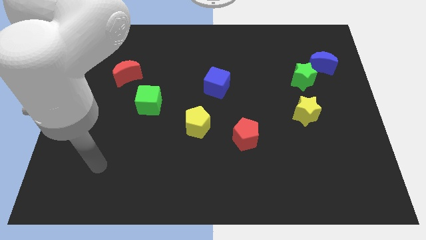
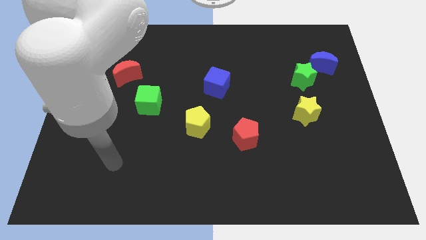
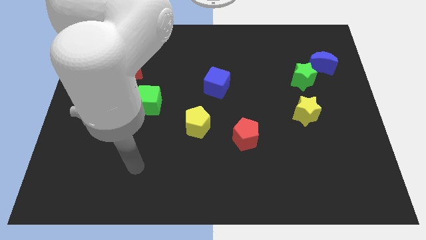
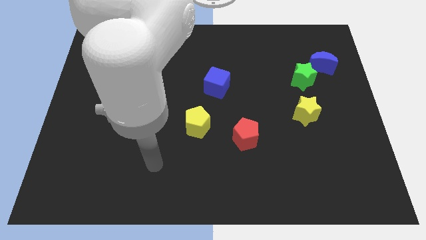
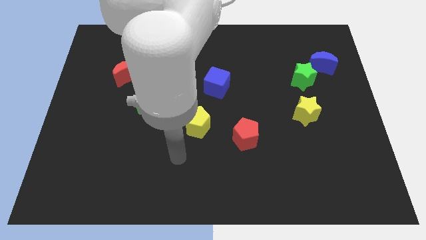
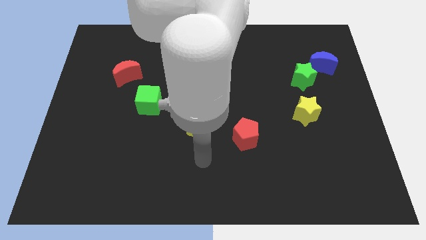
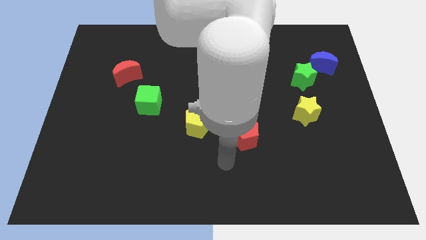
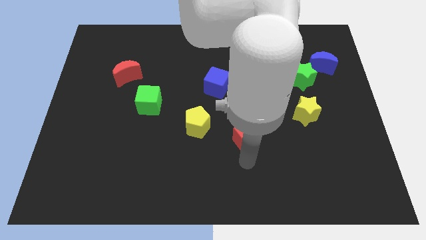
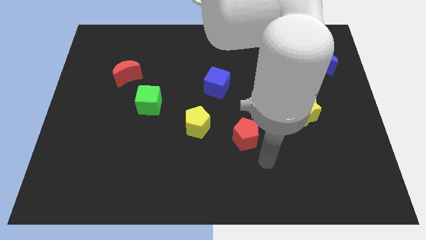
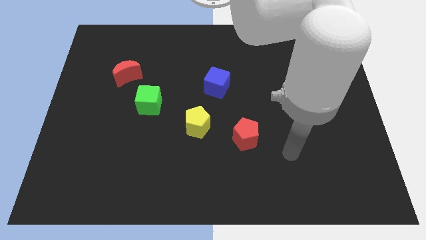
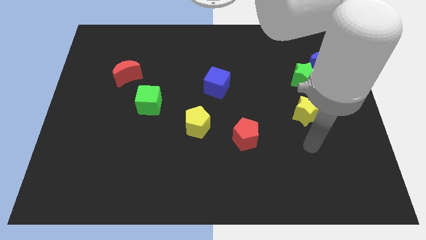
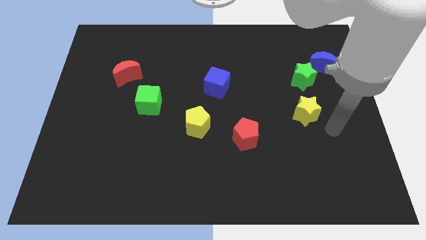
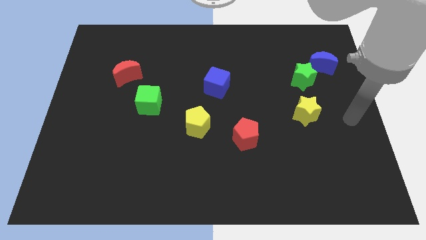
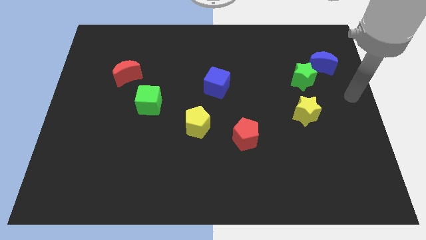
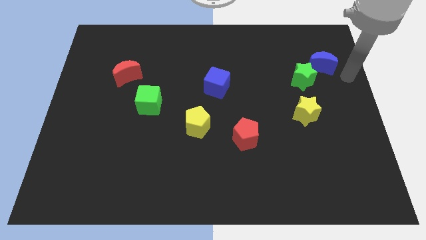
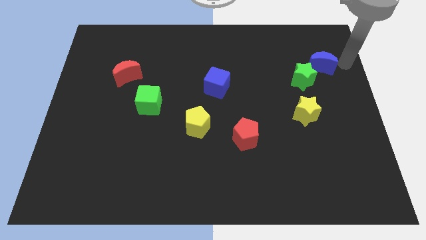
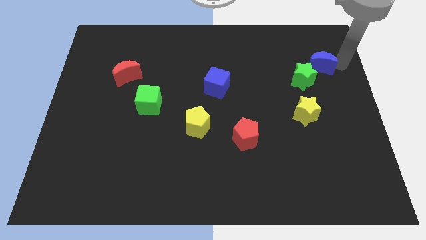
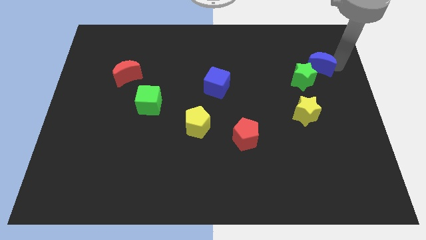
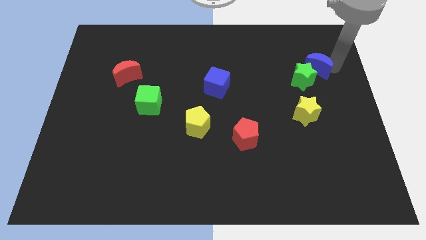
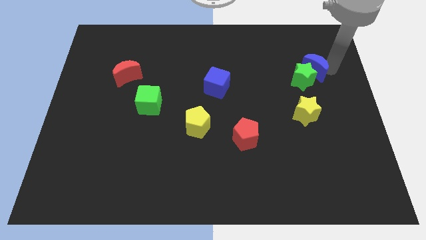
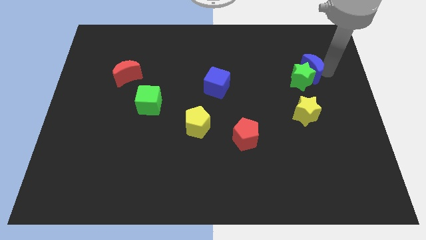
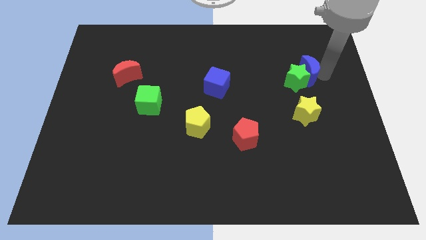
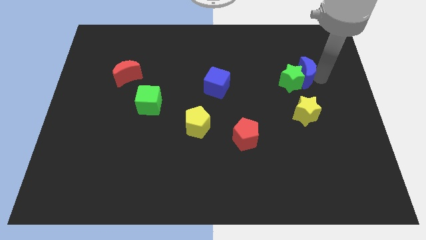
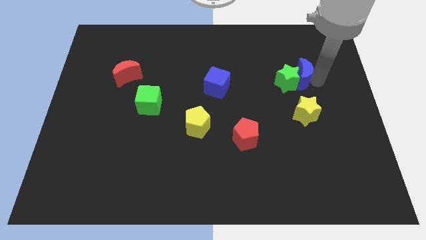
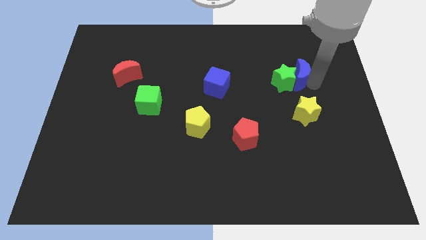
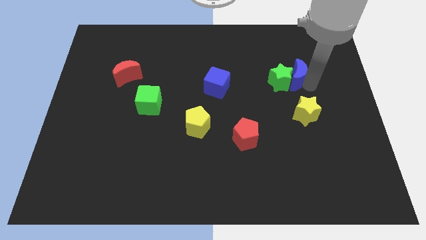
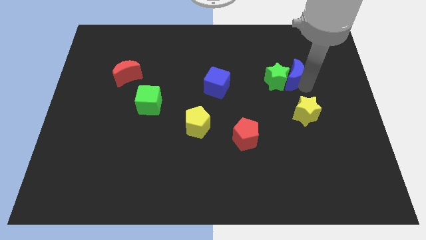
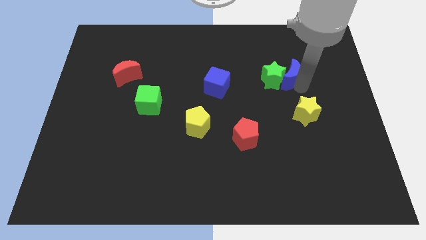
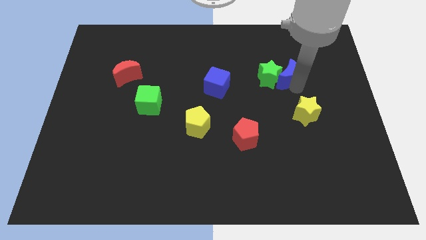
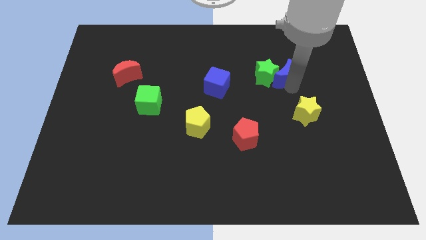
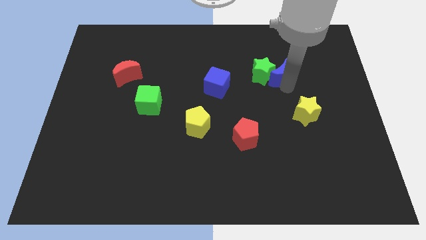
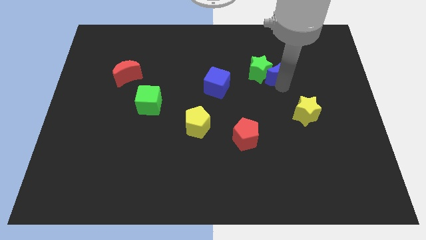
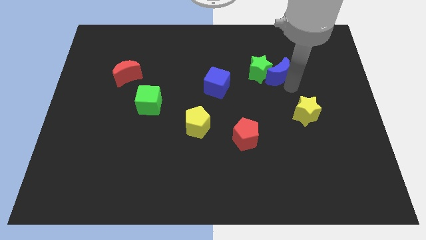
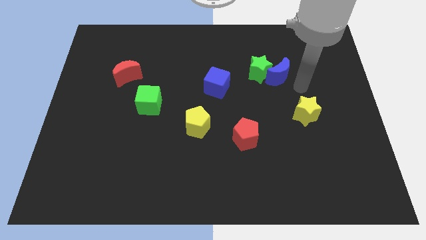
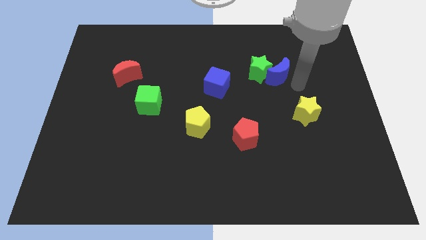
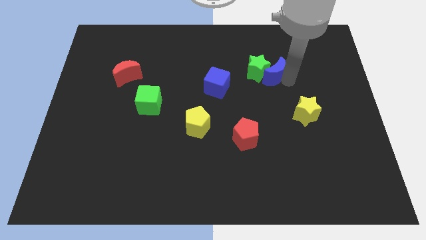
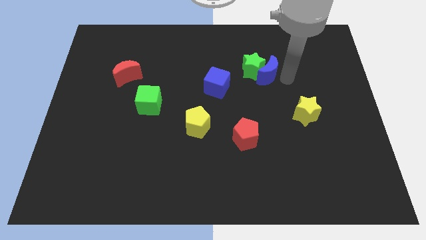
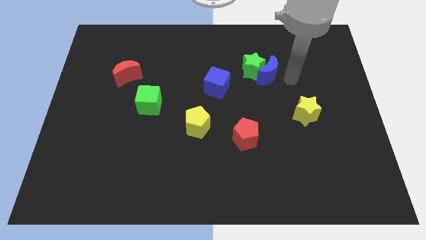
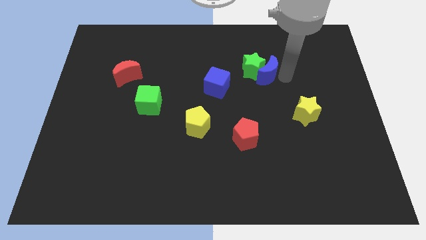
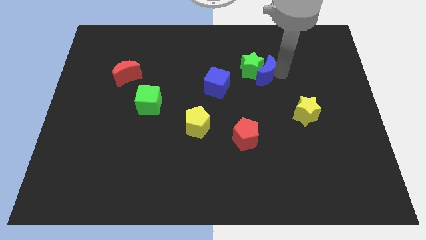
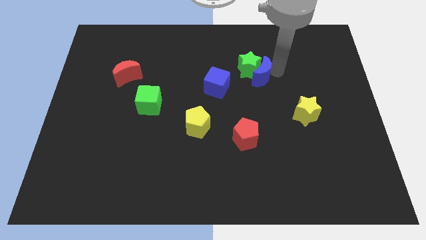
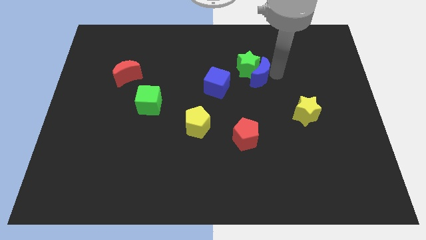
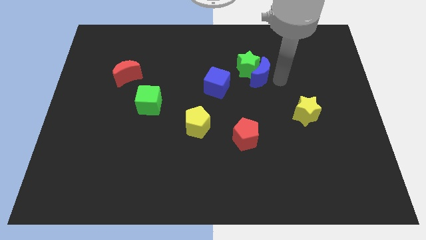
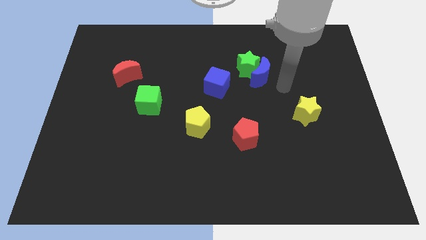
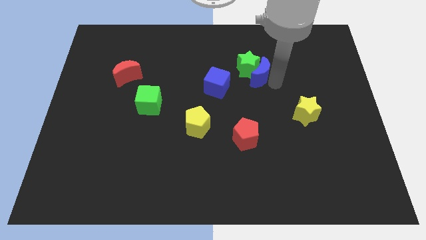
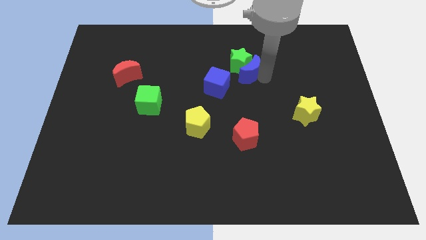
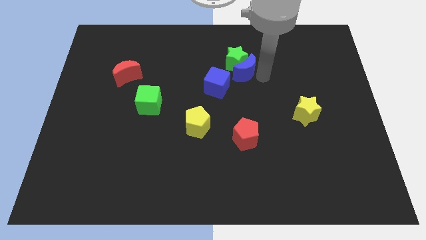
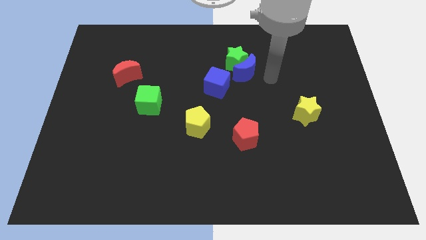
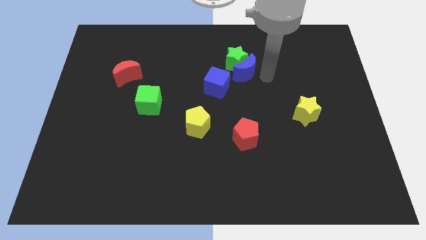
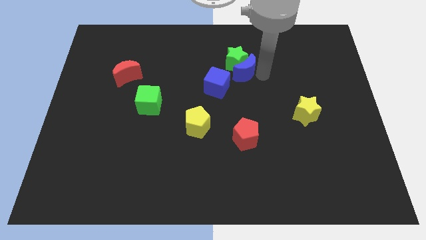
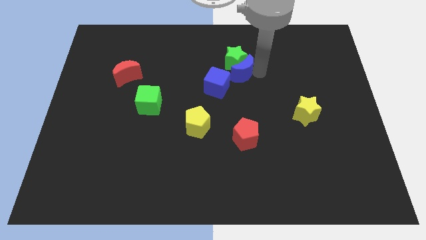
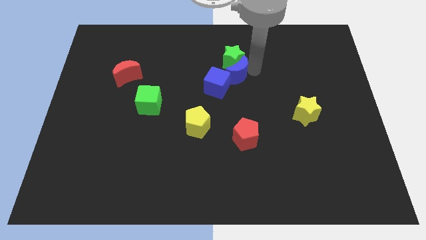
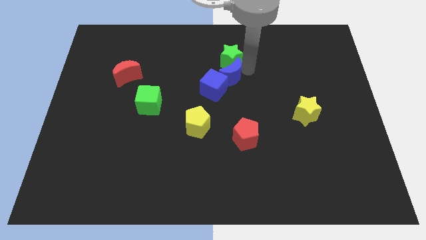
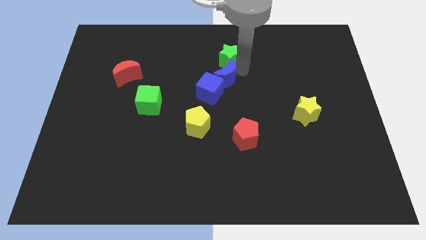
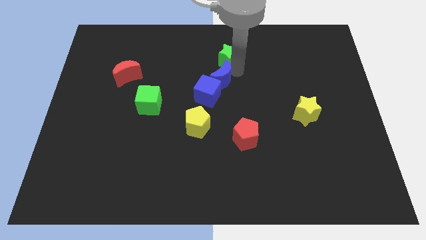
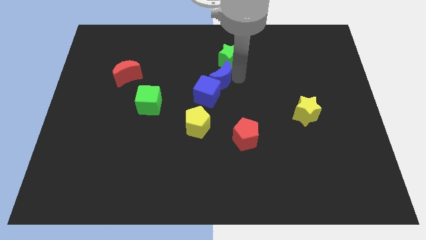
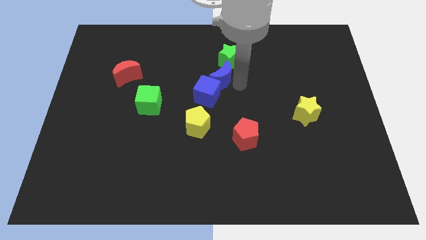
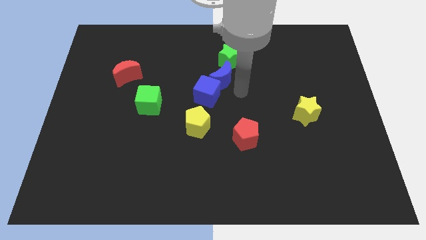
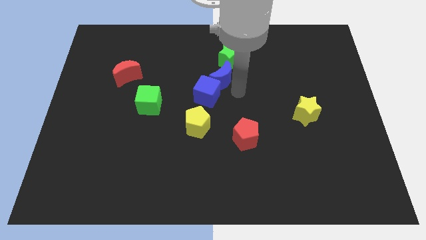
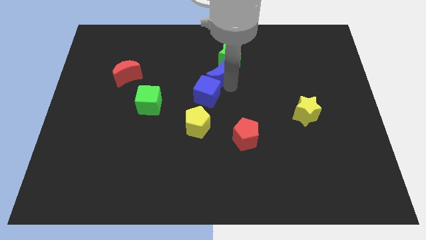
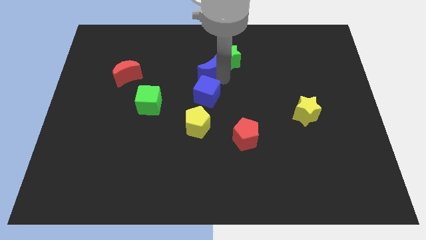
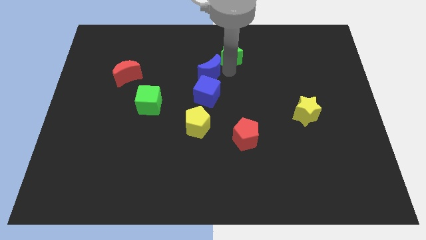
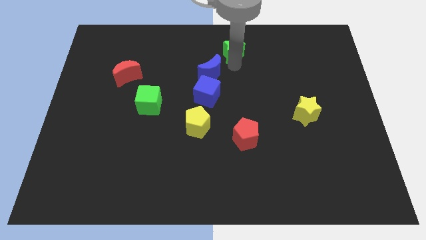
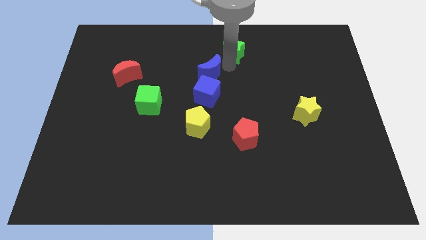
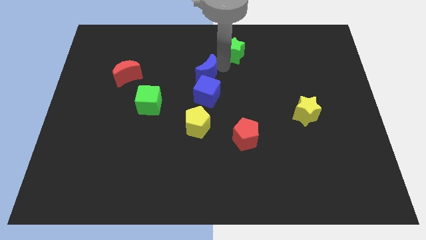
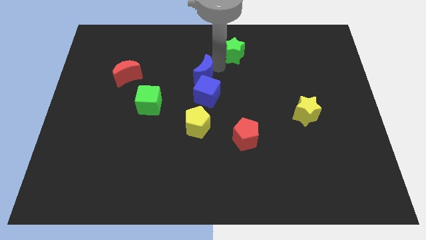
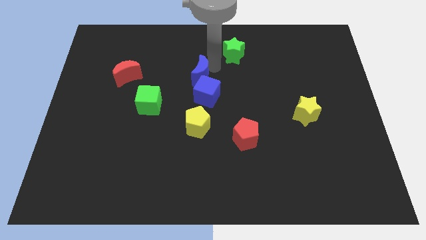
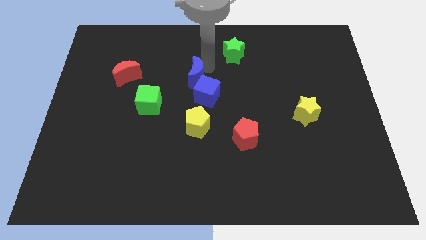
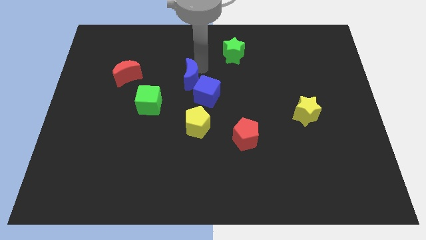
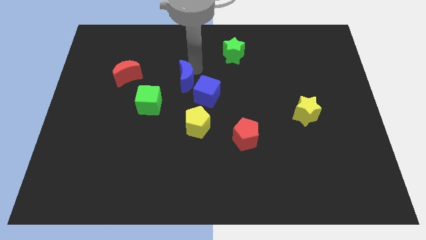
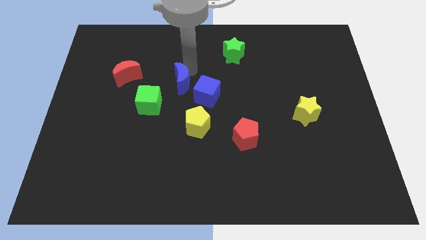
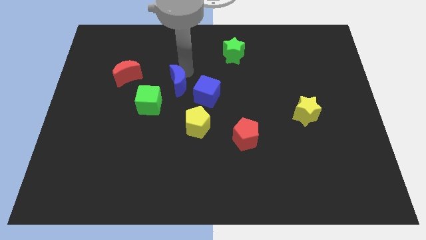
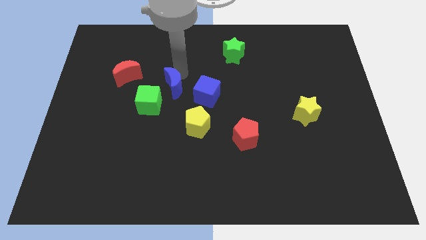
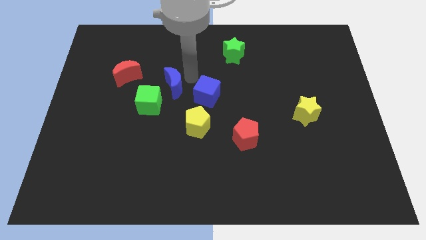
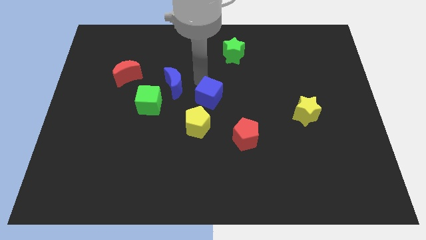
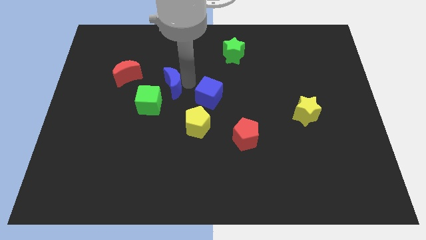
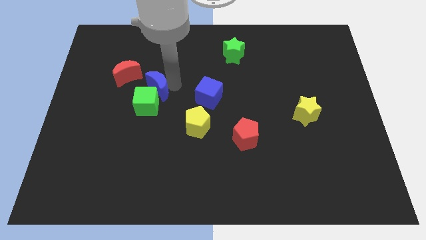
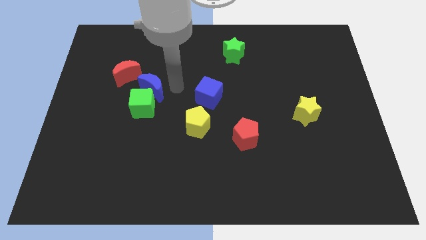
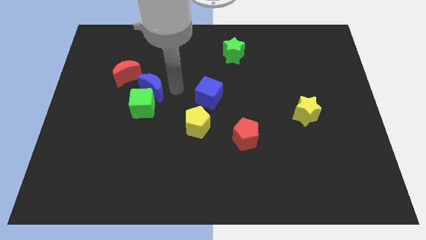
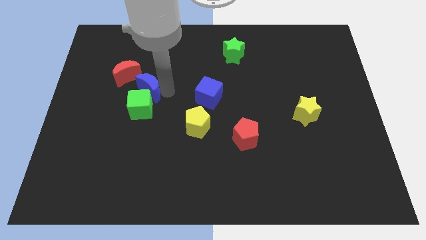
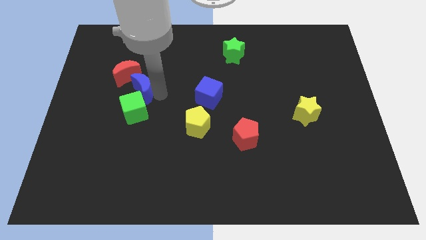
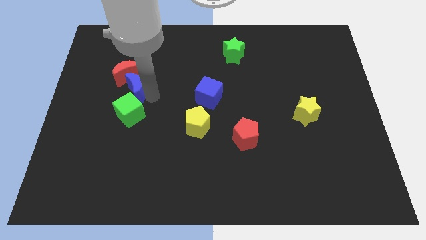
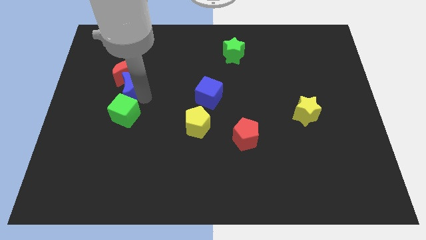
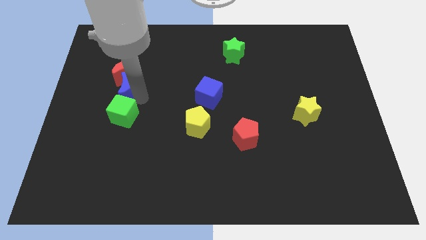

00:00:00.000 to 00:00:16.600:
put the blue moon to the bottom left of the red moon
